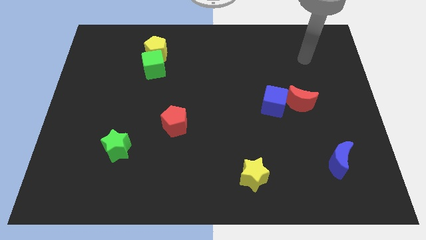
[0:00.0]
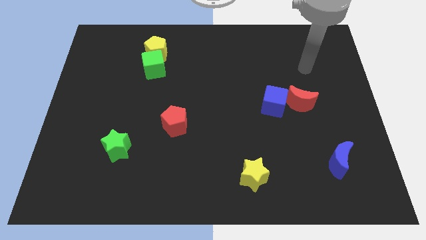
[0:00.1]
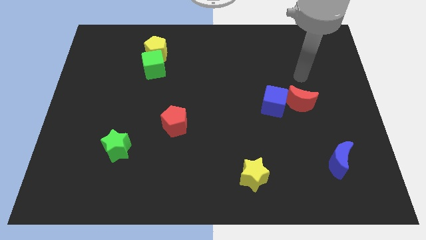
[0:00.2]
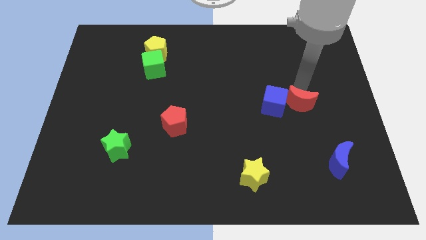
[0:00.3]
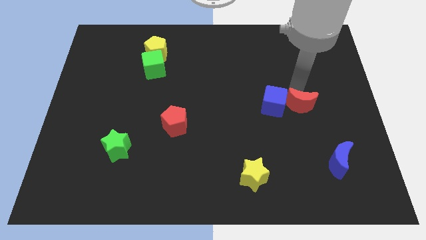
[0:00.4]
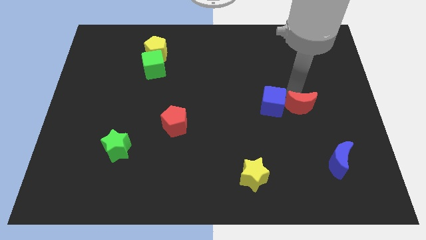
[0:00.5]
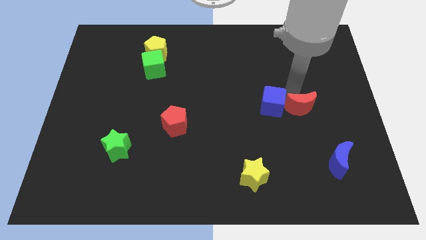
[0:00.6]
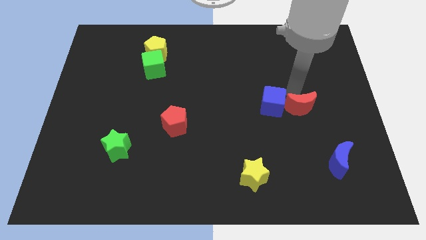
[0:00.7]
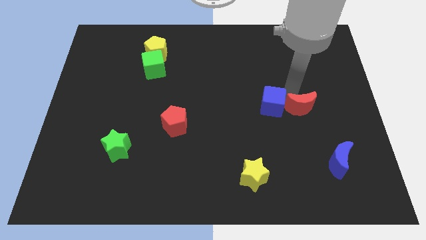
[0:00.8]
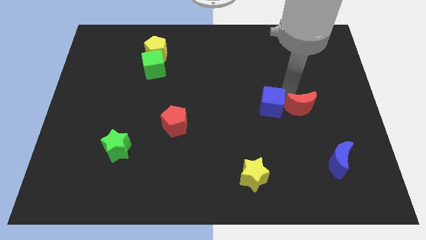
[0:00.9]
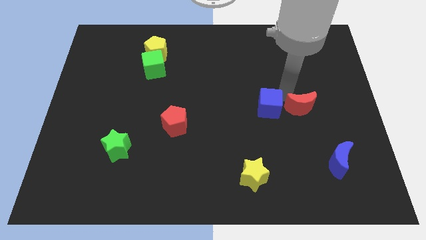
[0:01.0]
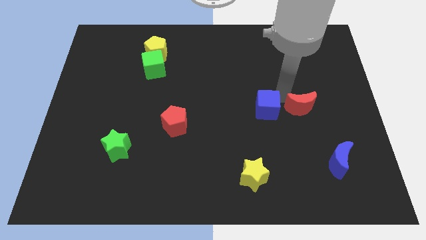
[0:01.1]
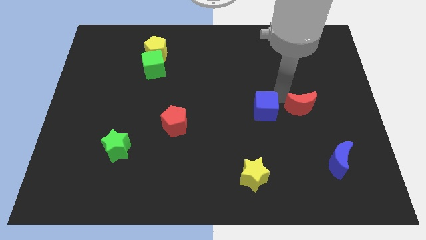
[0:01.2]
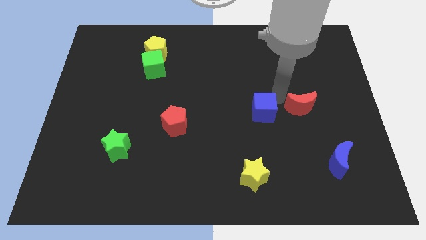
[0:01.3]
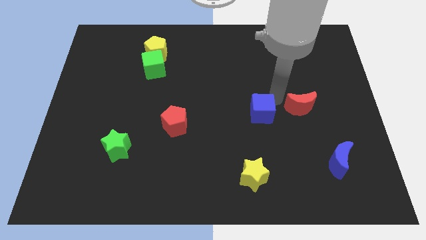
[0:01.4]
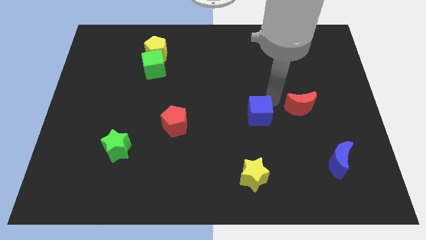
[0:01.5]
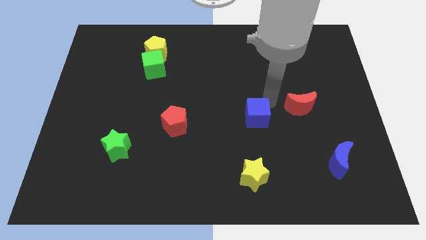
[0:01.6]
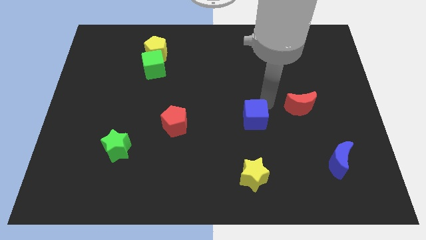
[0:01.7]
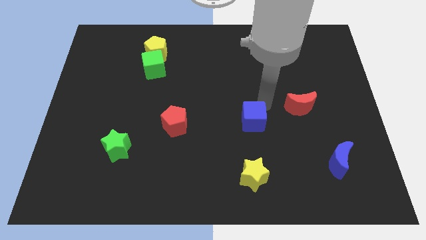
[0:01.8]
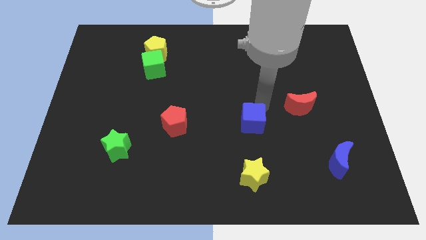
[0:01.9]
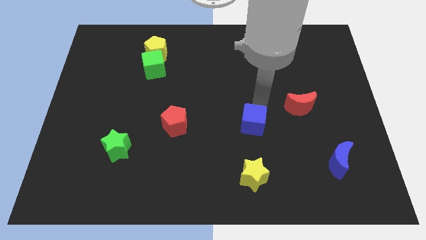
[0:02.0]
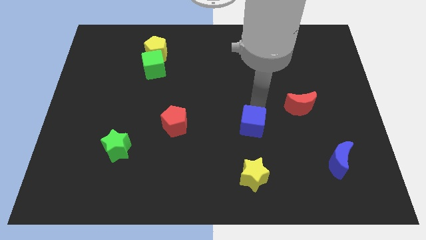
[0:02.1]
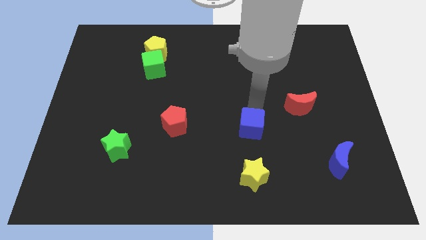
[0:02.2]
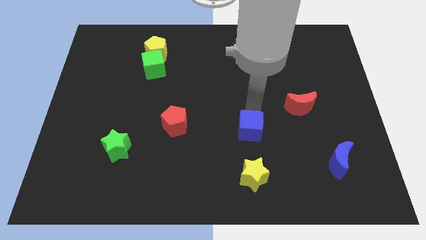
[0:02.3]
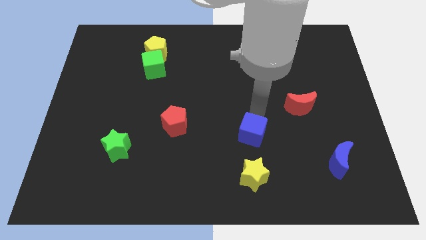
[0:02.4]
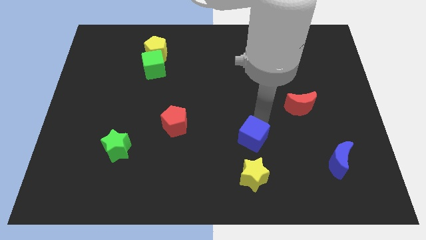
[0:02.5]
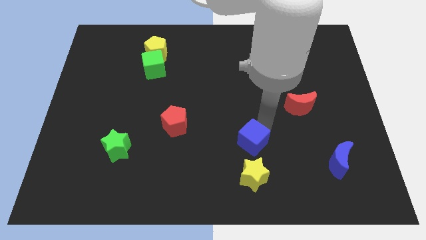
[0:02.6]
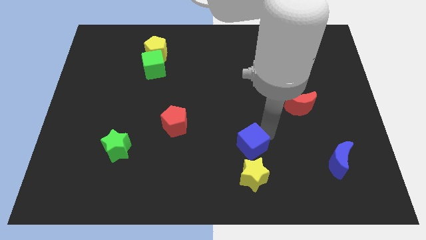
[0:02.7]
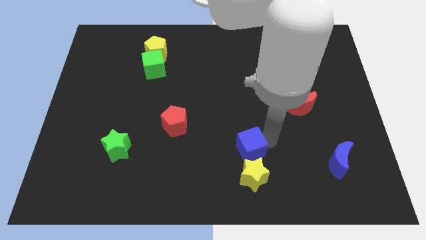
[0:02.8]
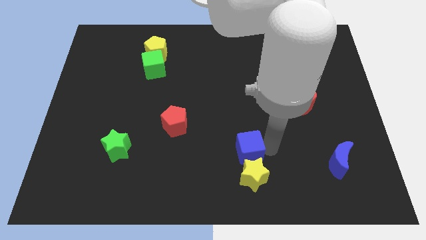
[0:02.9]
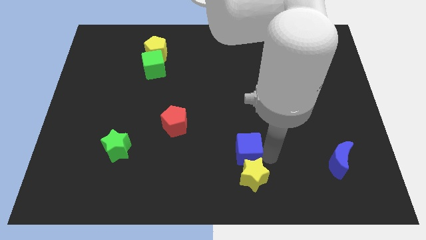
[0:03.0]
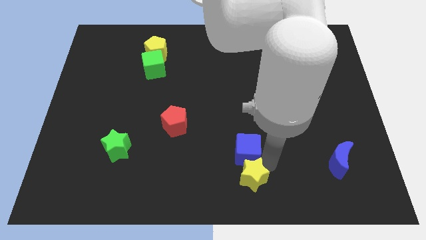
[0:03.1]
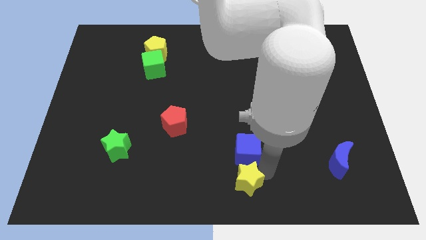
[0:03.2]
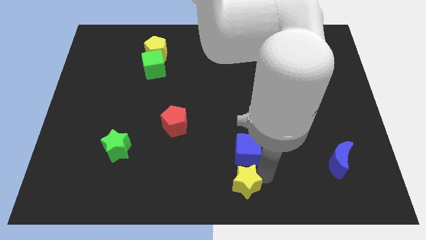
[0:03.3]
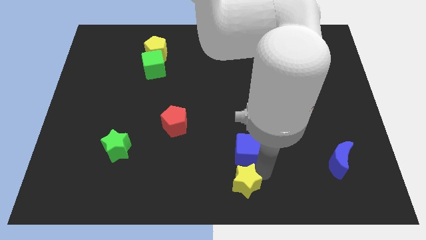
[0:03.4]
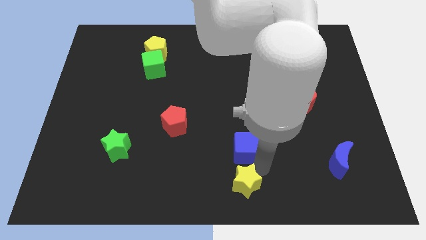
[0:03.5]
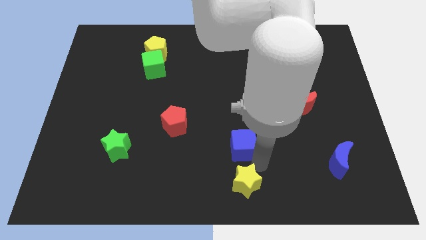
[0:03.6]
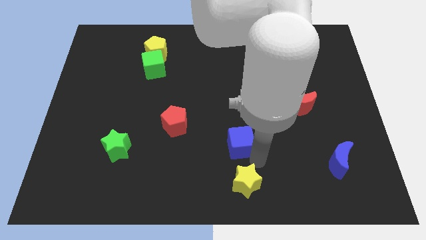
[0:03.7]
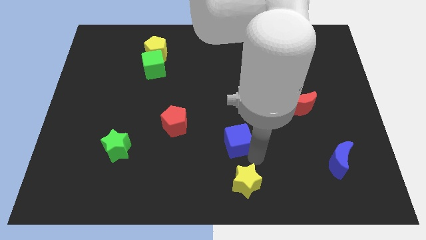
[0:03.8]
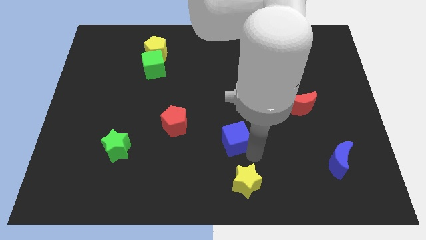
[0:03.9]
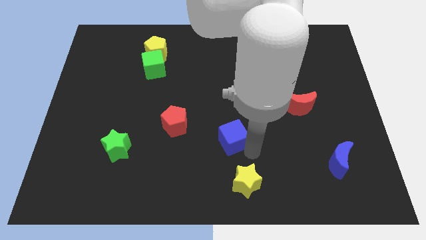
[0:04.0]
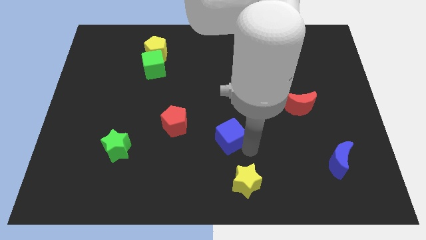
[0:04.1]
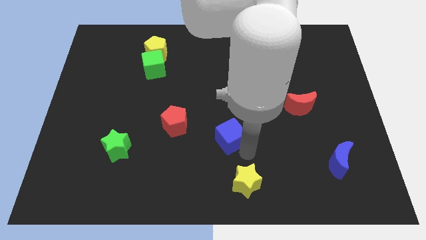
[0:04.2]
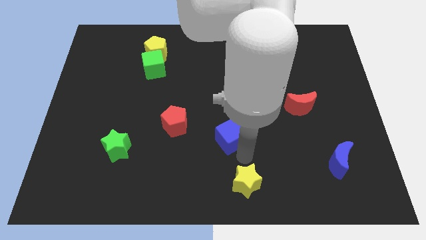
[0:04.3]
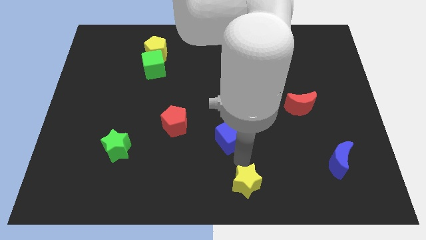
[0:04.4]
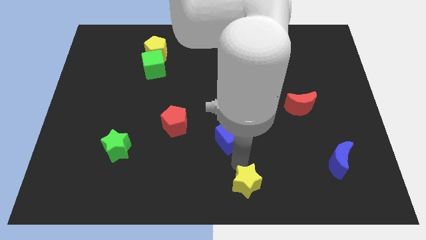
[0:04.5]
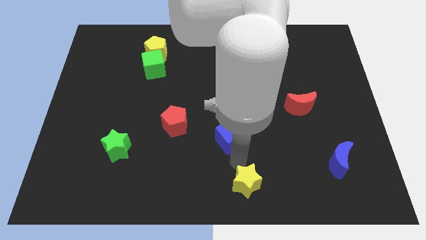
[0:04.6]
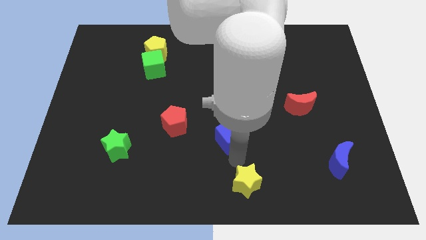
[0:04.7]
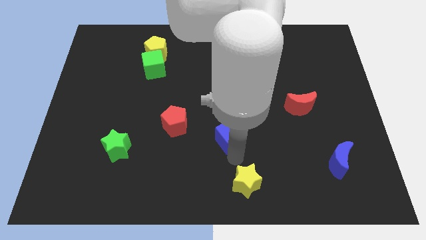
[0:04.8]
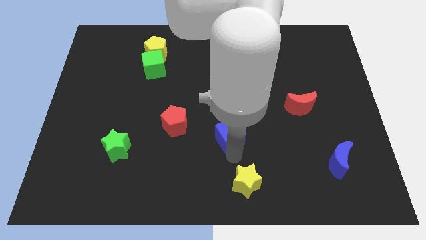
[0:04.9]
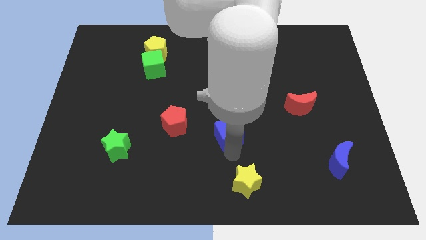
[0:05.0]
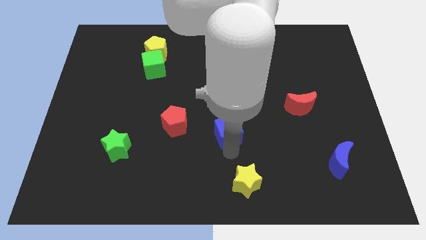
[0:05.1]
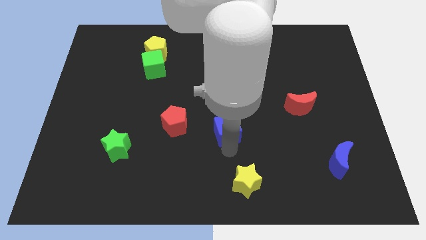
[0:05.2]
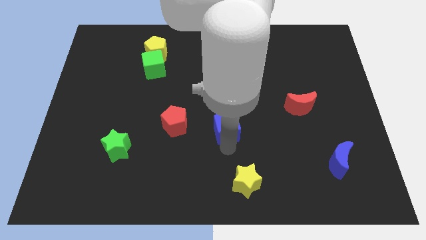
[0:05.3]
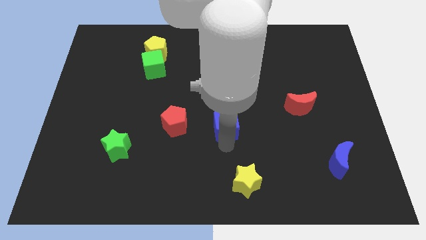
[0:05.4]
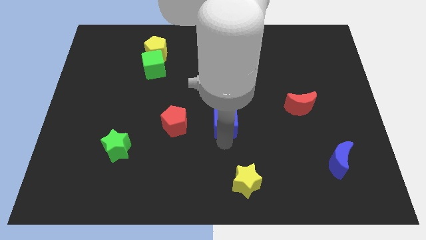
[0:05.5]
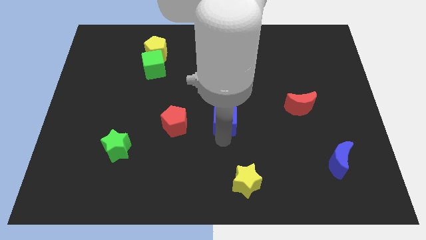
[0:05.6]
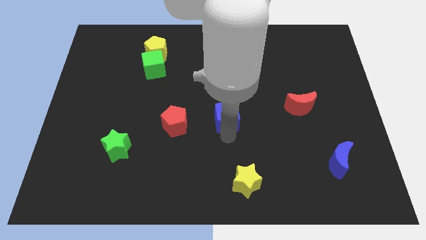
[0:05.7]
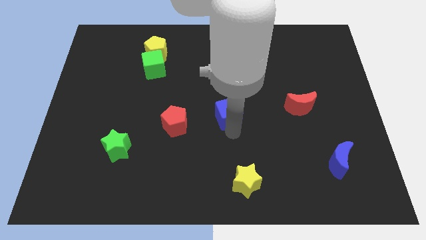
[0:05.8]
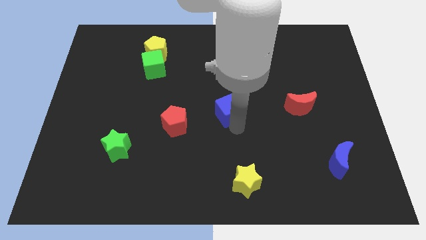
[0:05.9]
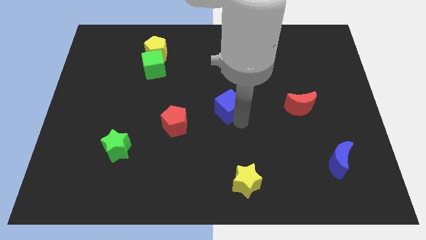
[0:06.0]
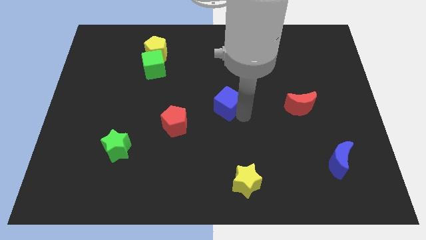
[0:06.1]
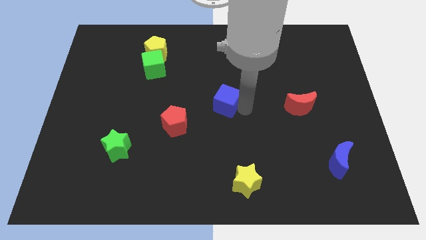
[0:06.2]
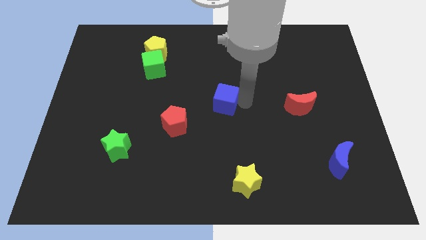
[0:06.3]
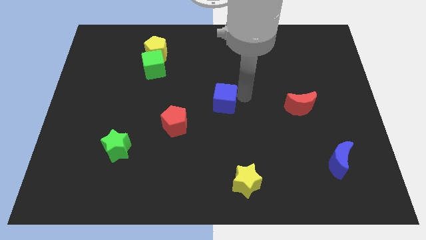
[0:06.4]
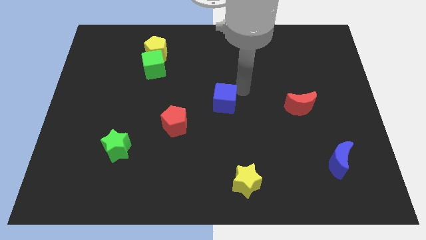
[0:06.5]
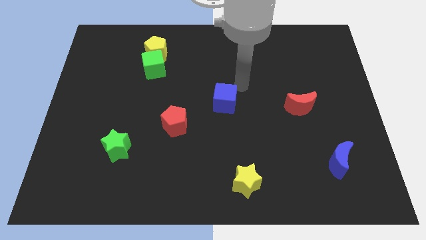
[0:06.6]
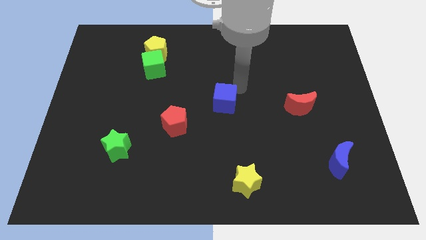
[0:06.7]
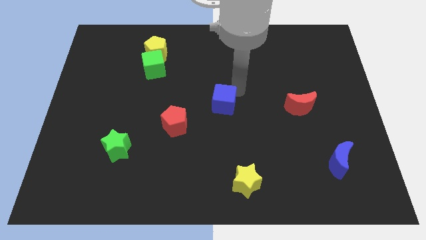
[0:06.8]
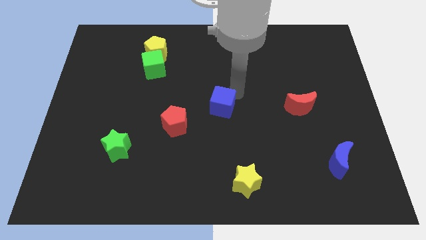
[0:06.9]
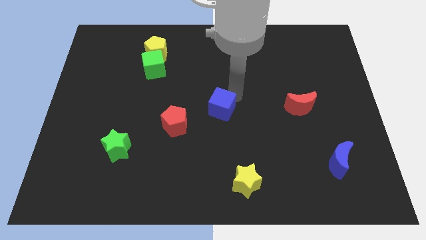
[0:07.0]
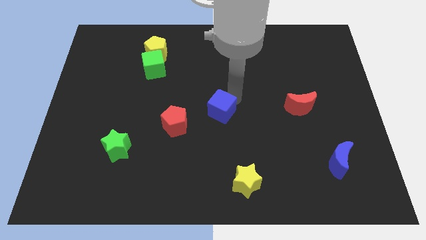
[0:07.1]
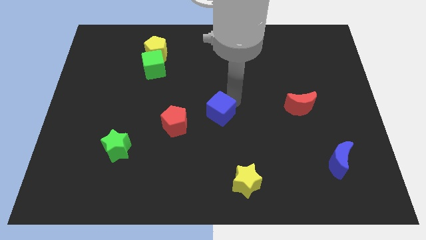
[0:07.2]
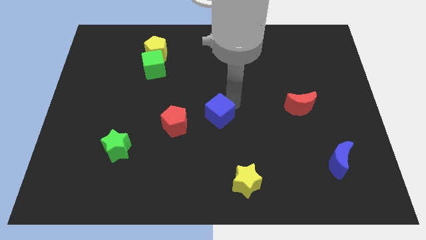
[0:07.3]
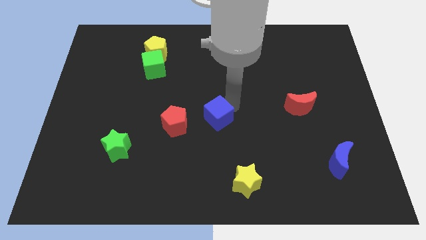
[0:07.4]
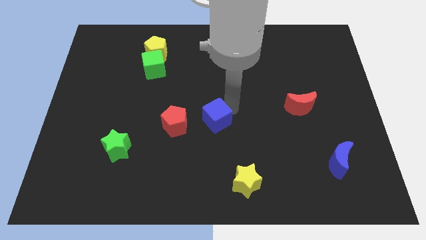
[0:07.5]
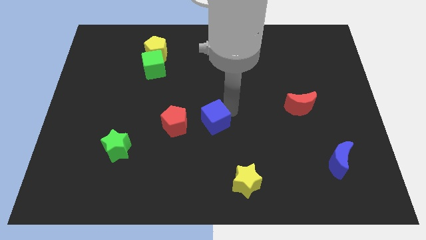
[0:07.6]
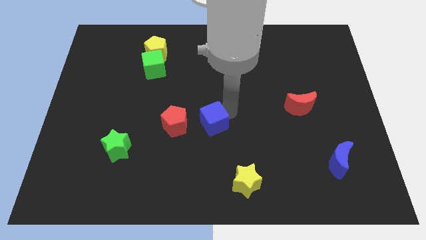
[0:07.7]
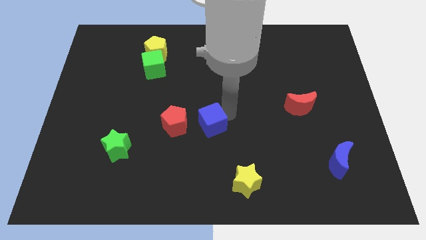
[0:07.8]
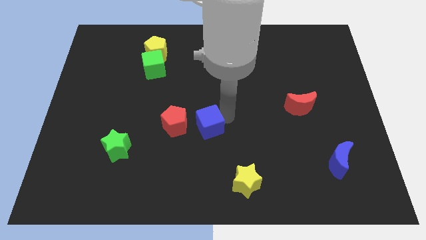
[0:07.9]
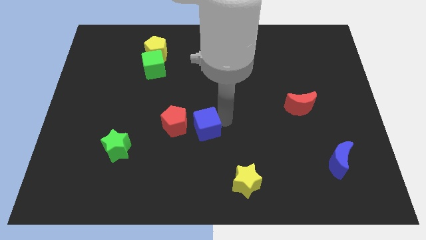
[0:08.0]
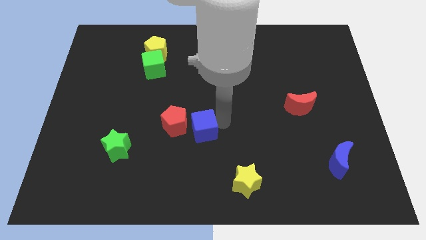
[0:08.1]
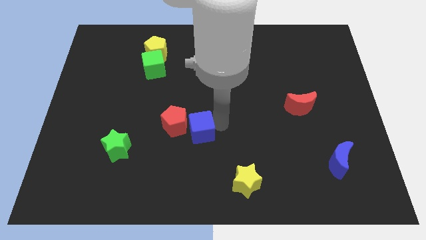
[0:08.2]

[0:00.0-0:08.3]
put the blue cube close to the red pentagon
